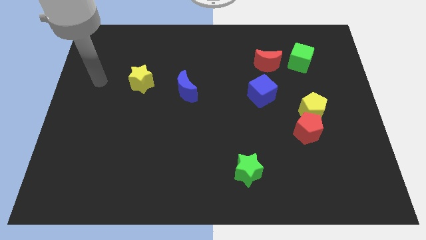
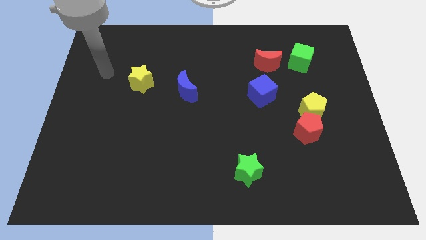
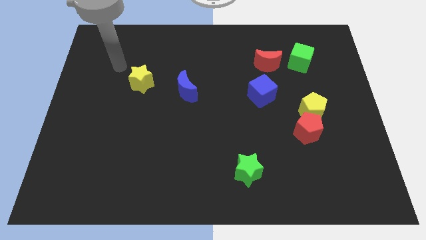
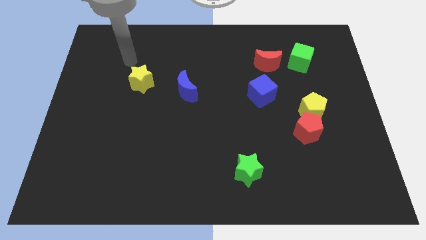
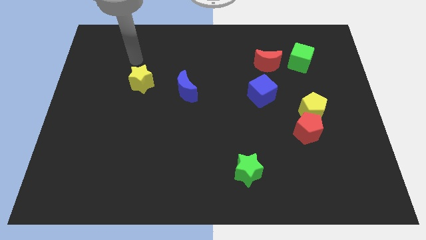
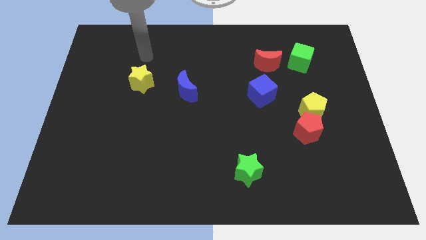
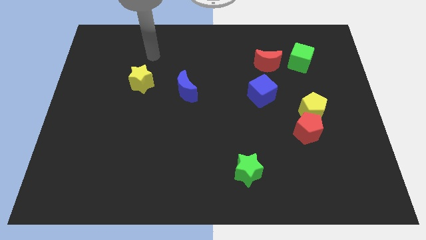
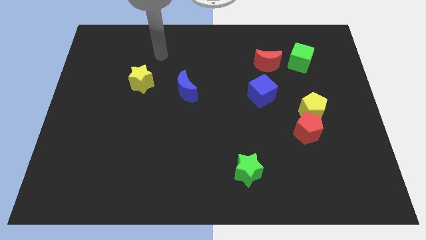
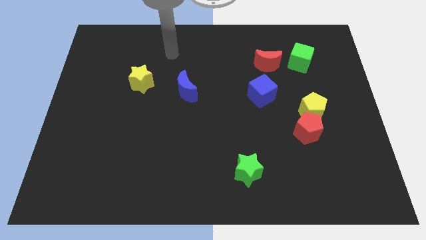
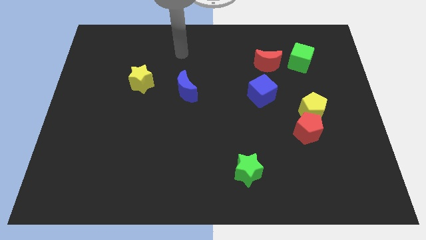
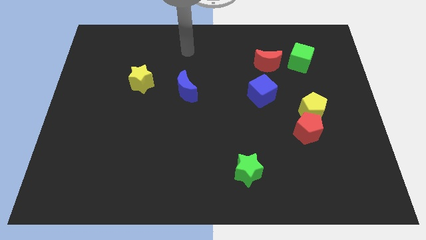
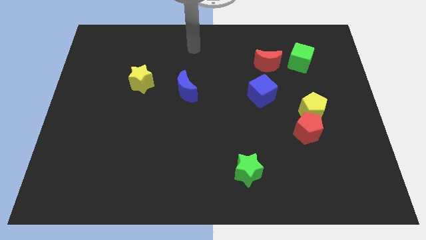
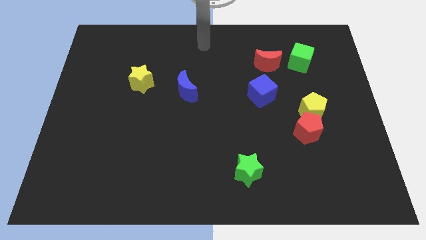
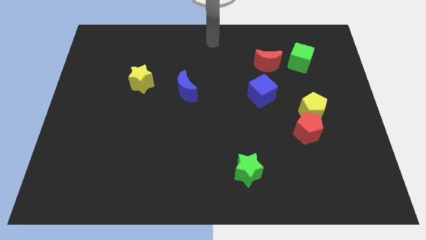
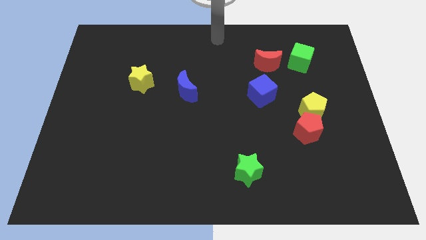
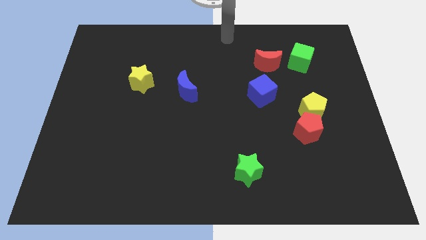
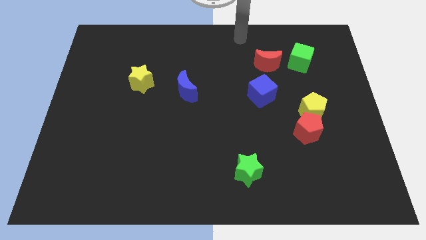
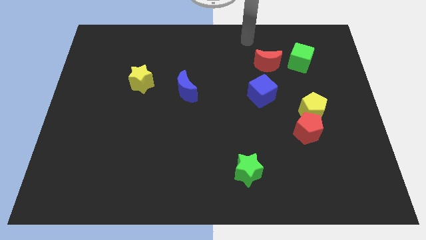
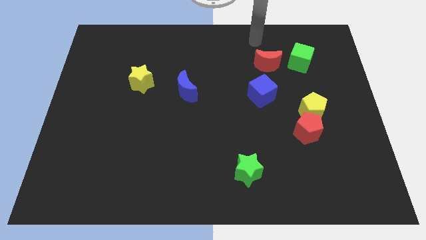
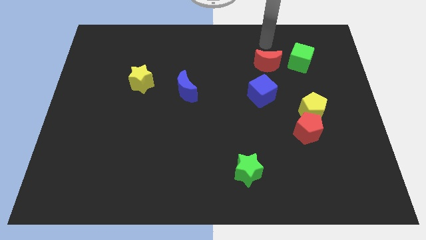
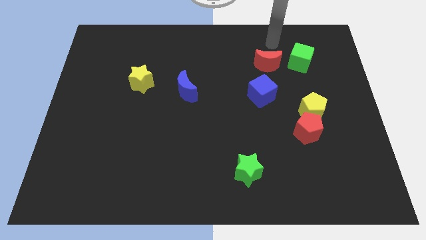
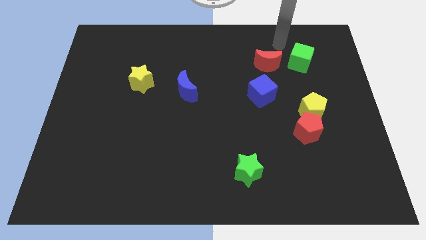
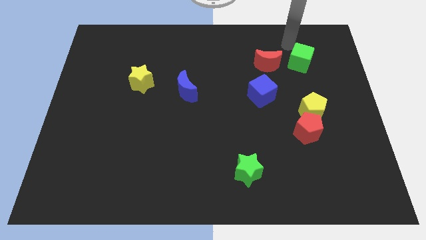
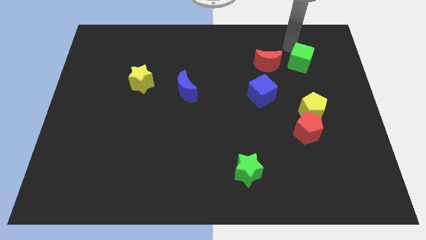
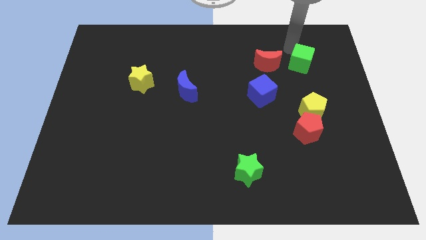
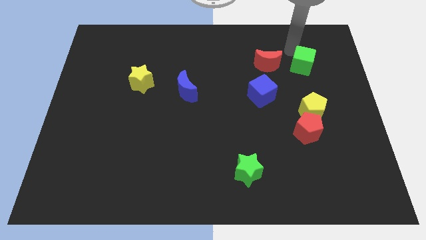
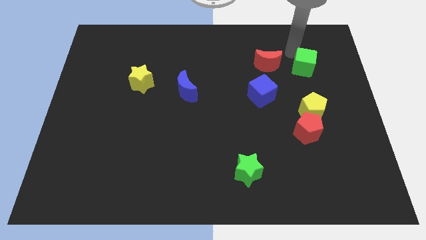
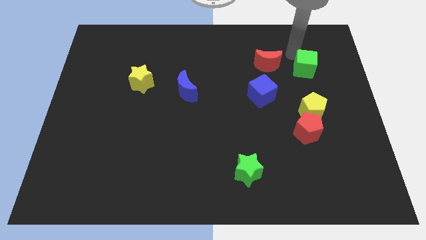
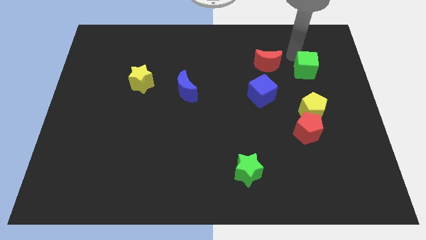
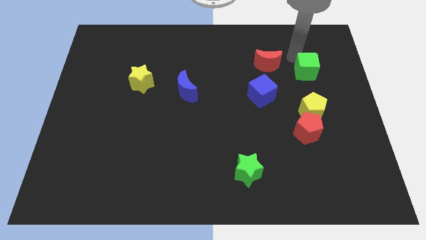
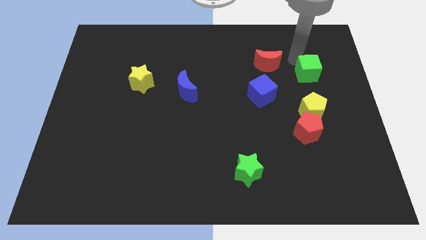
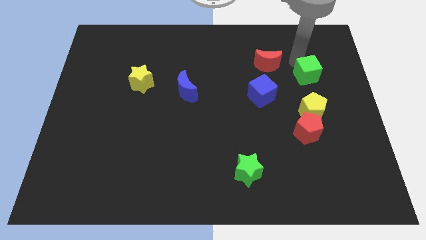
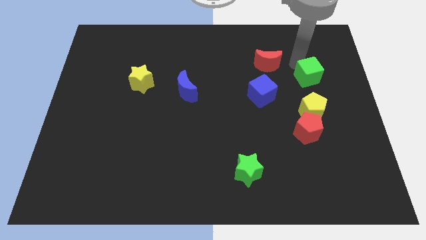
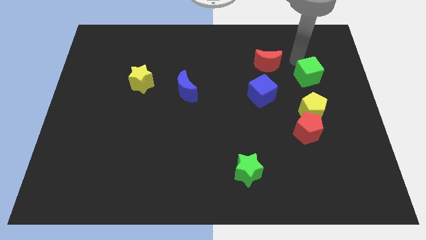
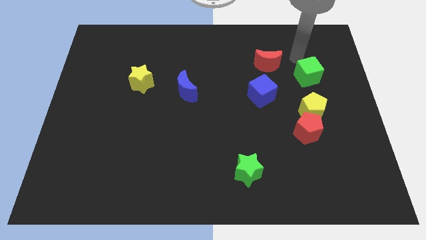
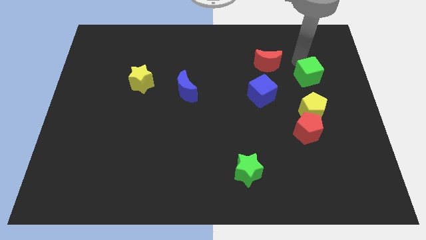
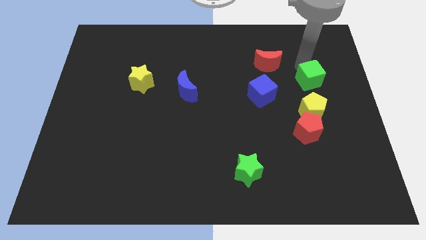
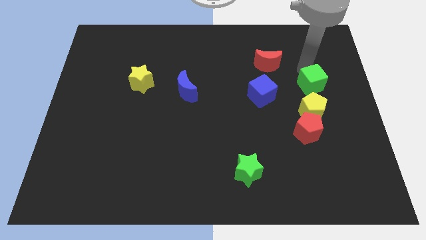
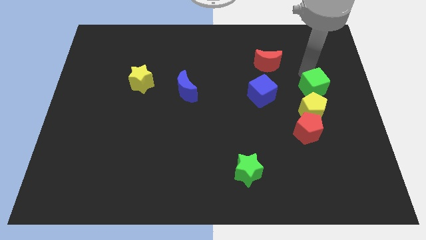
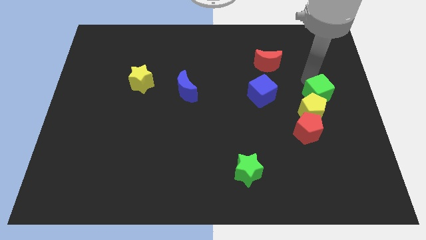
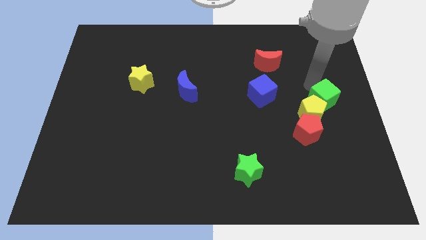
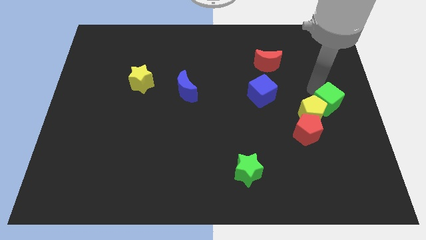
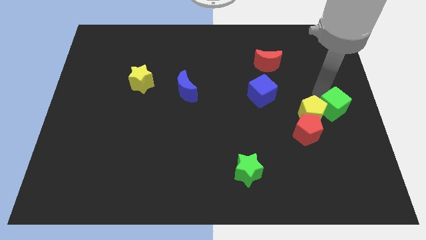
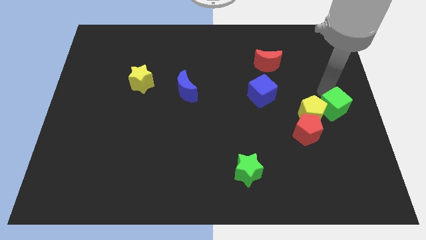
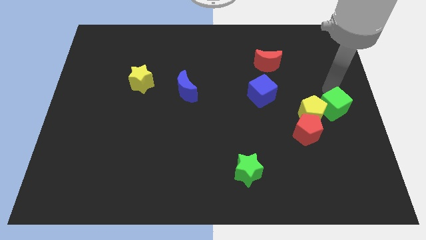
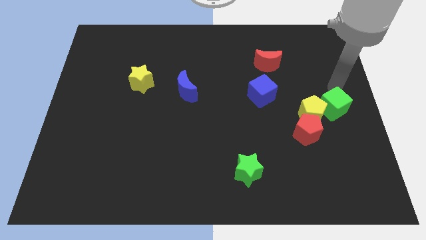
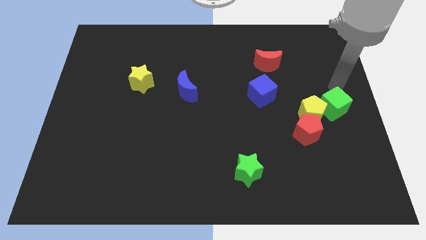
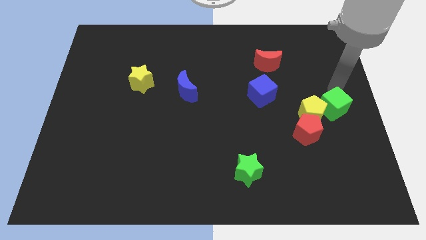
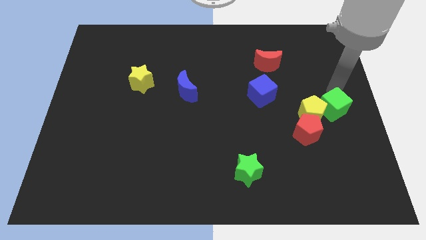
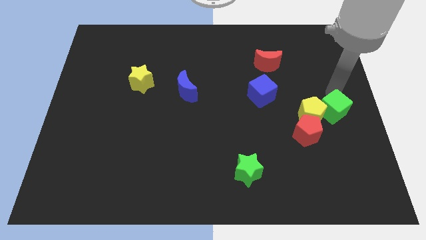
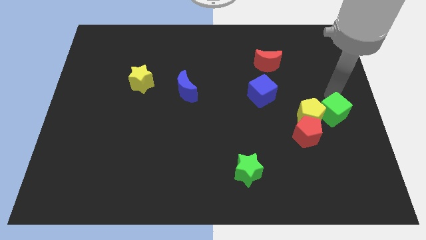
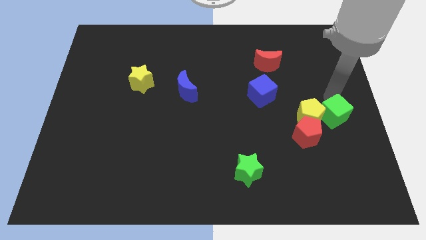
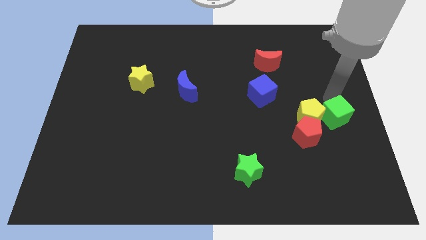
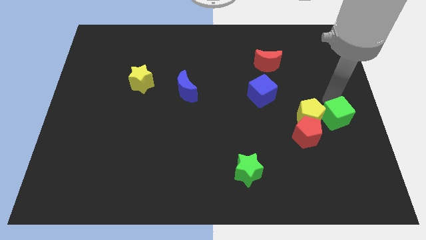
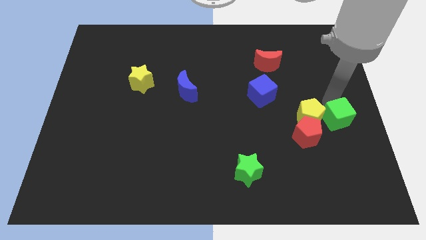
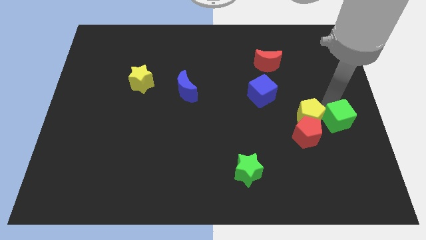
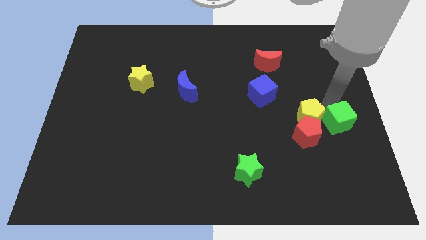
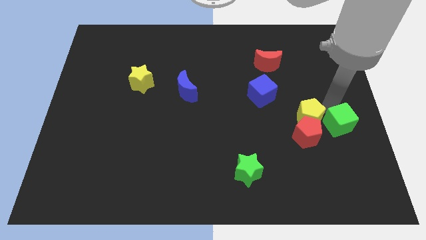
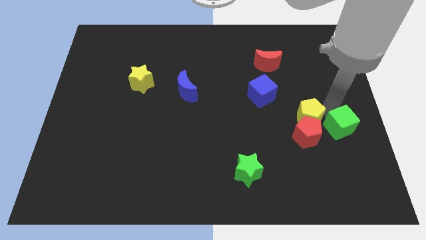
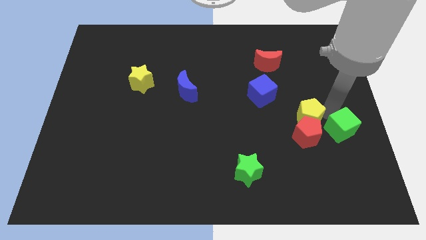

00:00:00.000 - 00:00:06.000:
slide the green cube down

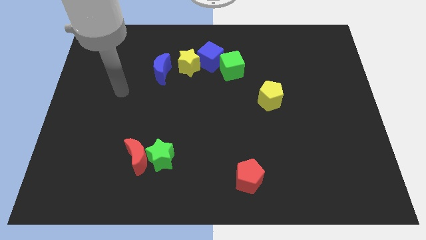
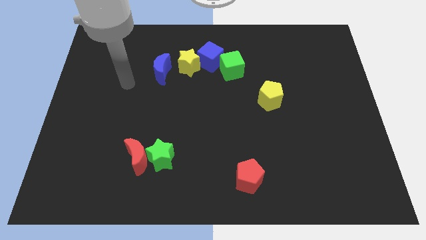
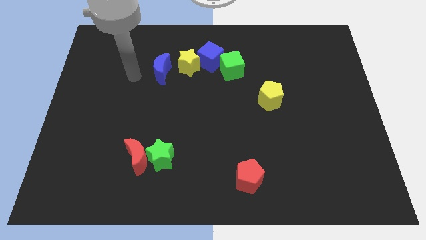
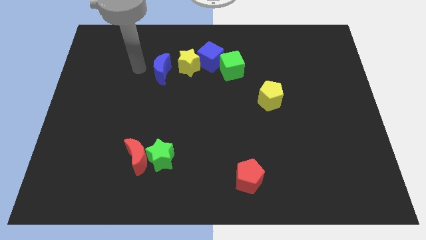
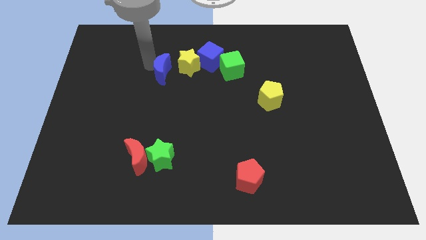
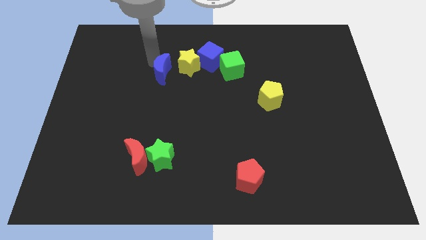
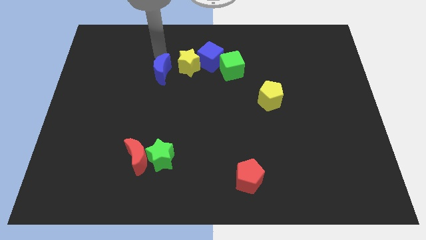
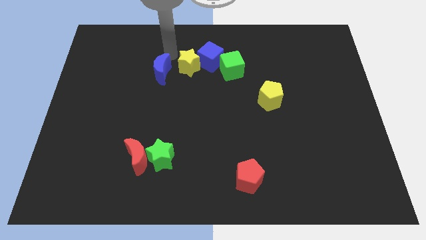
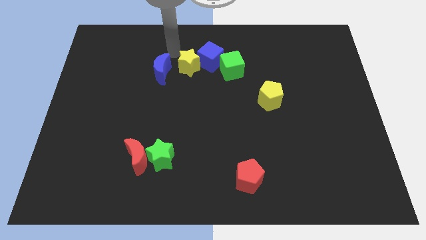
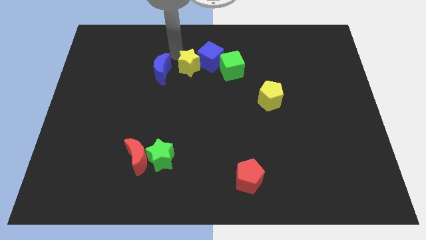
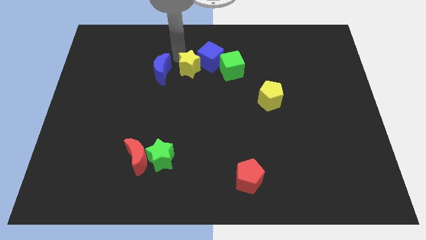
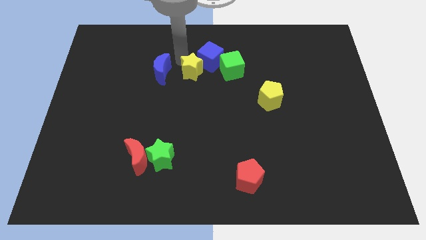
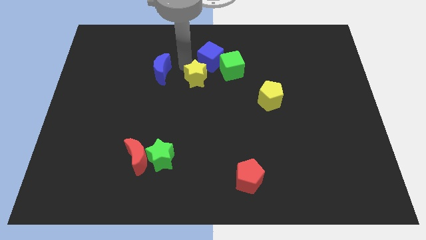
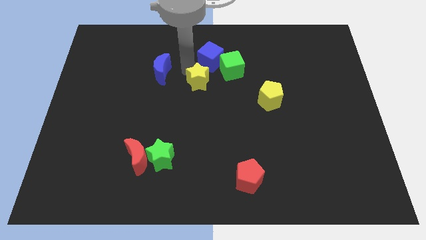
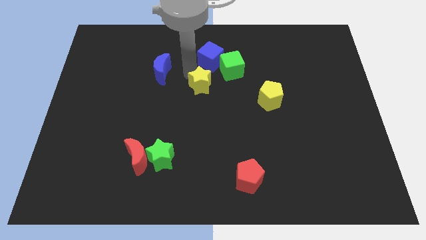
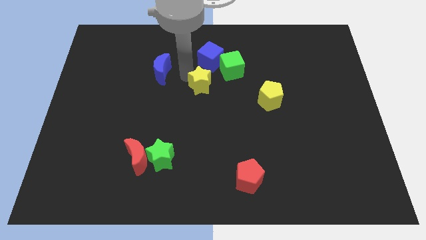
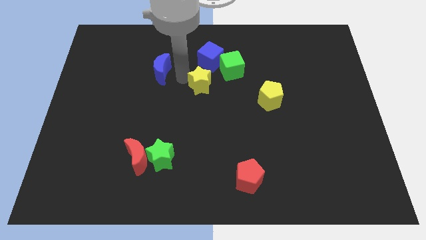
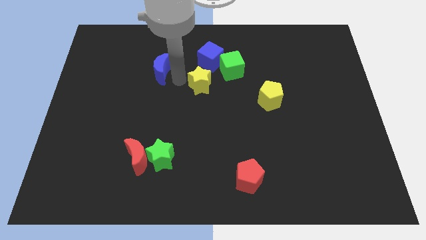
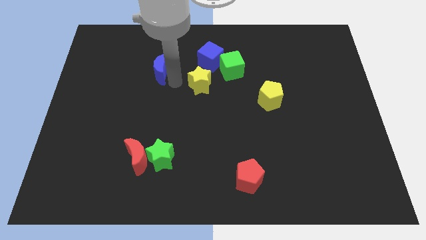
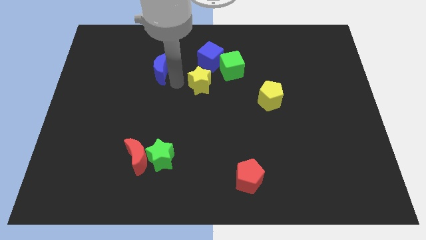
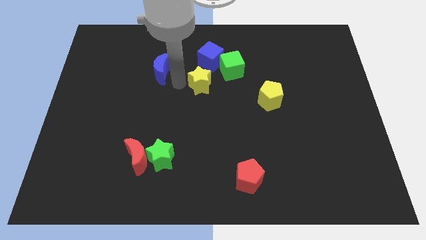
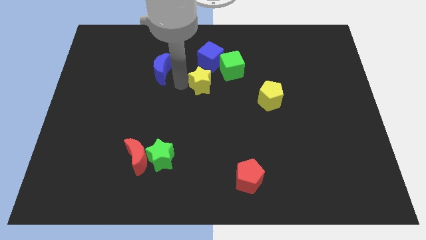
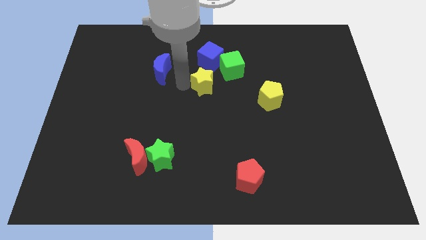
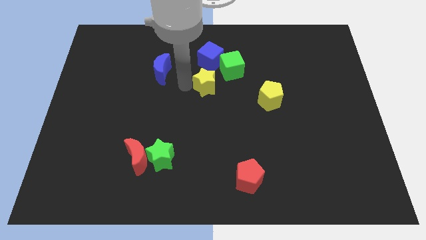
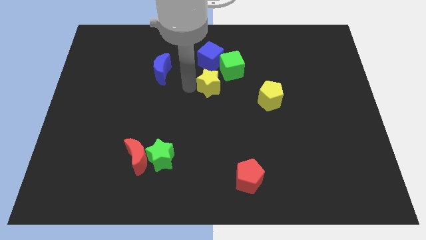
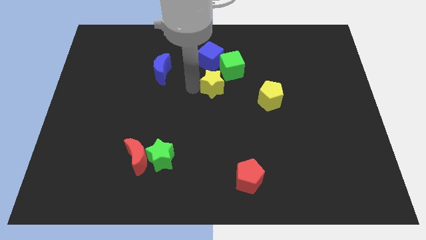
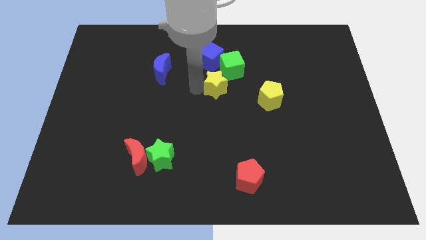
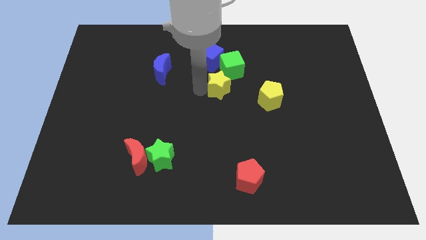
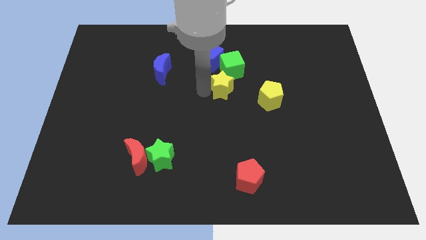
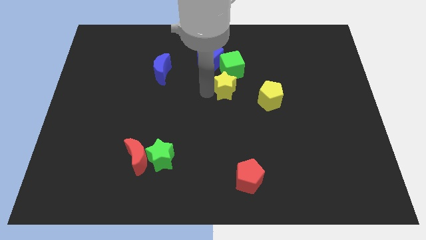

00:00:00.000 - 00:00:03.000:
slightly push the yellow star to the right
